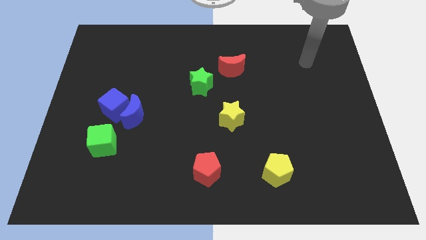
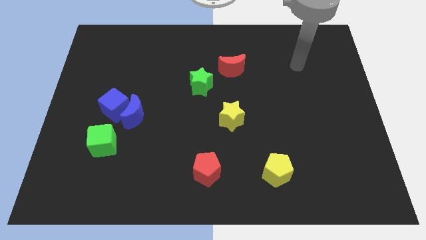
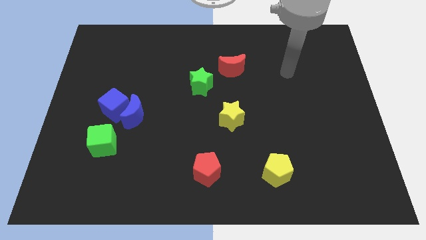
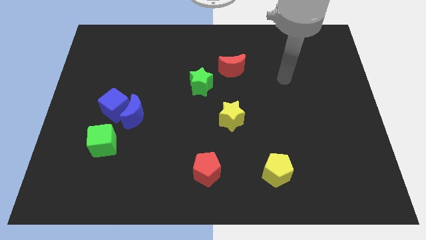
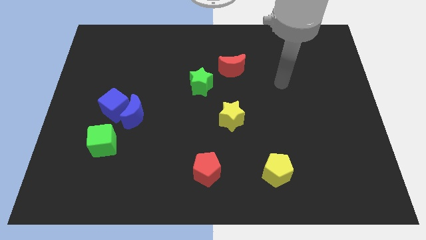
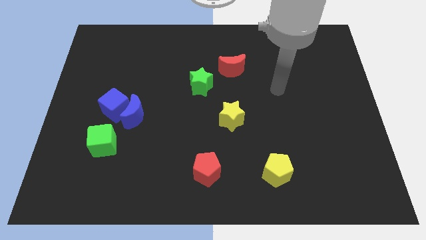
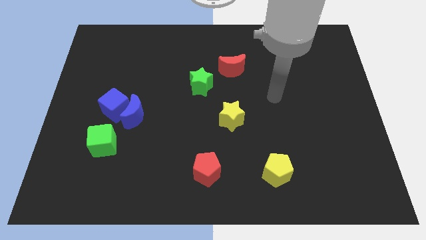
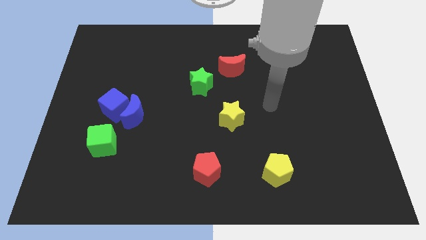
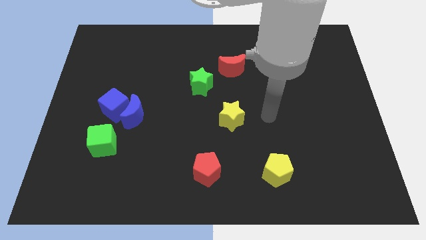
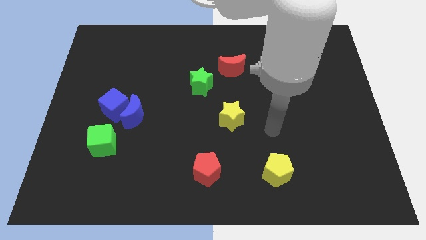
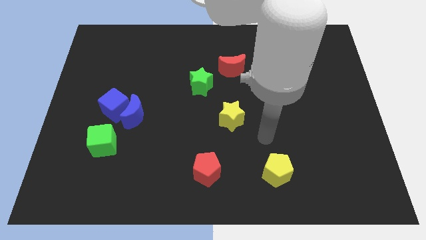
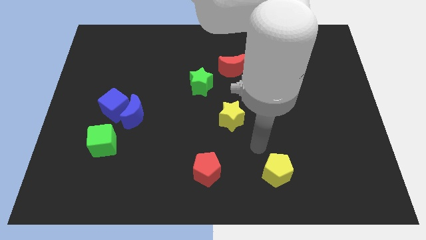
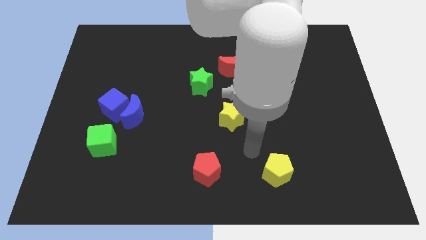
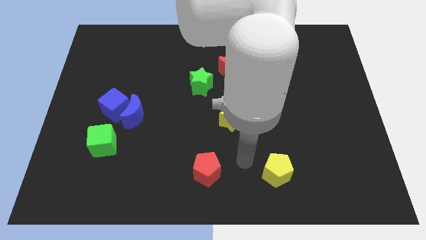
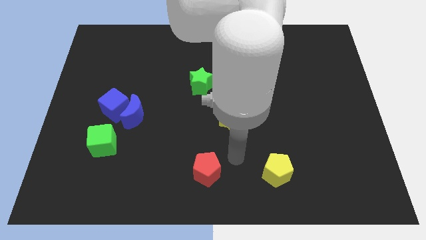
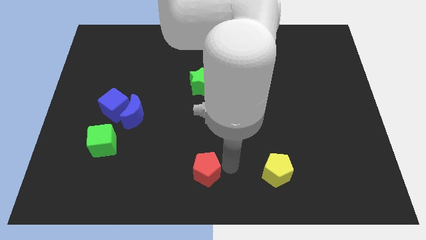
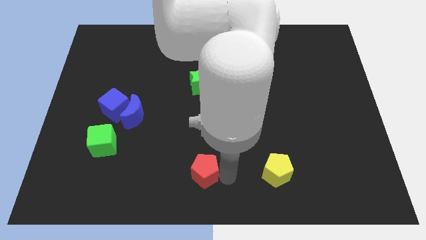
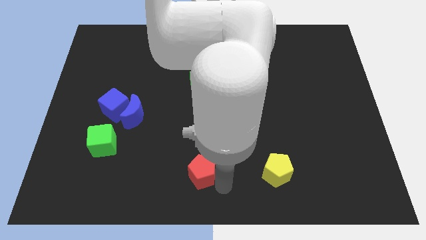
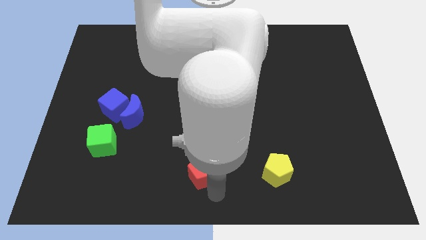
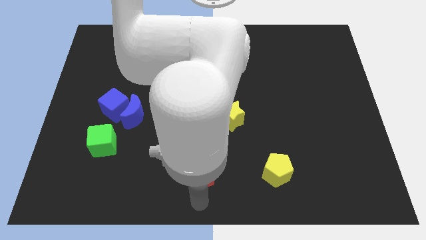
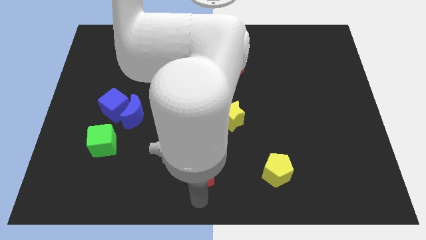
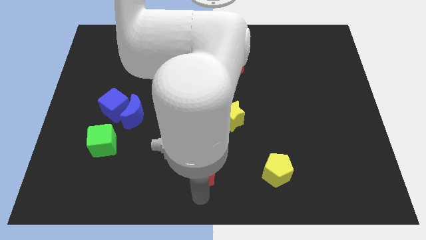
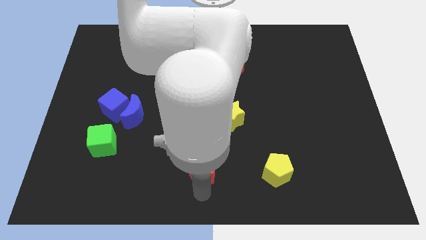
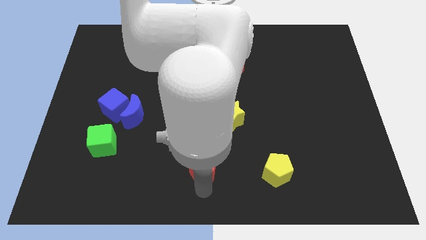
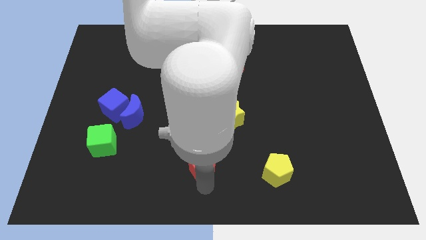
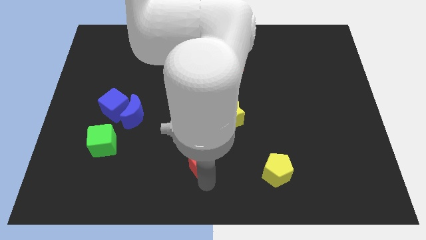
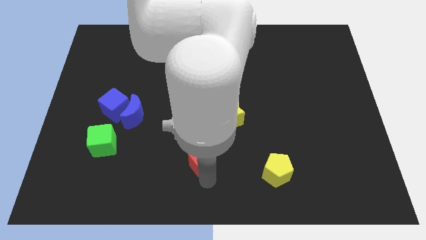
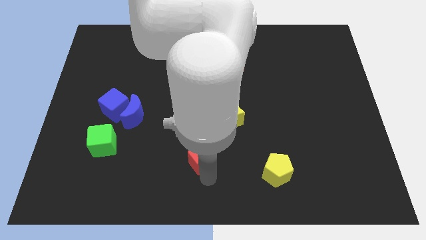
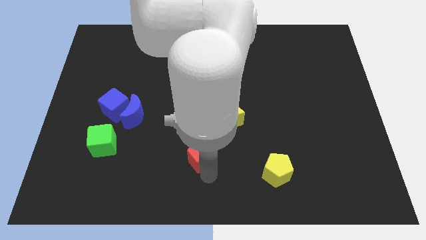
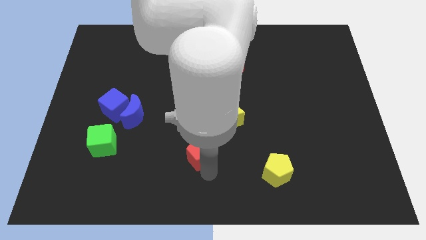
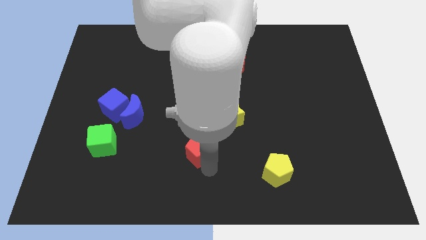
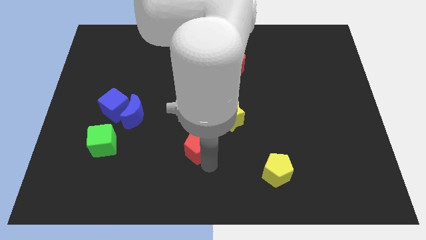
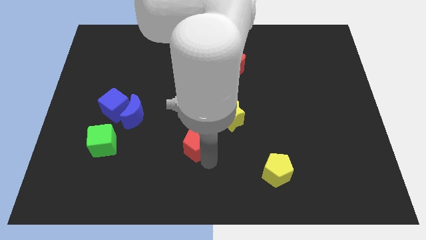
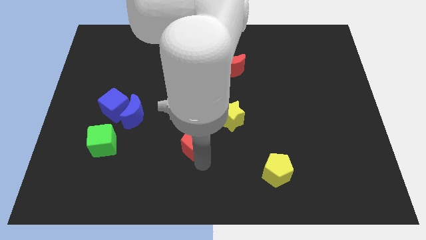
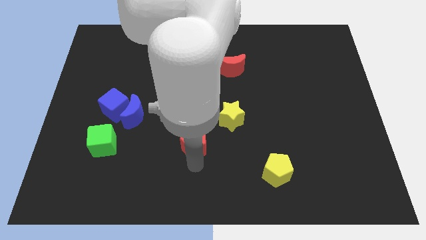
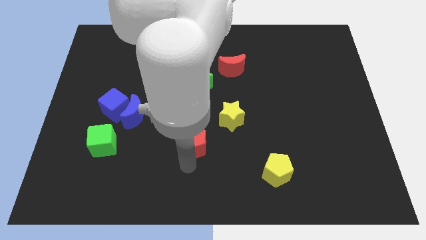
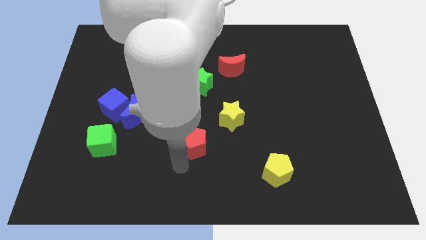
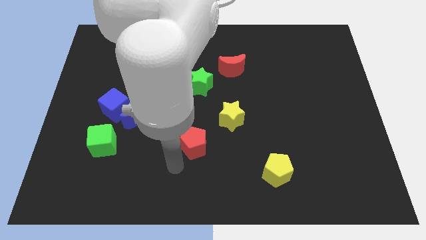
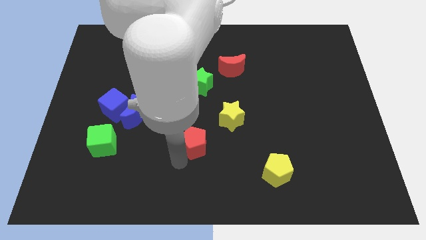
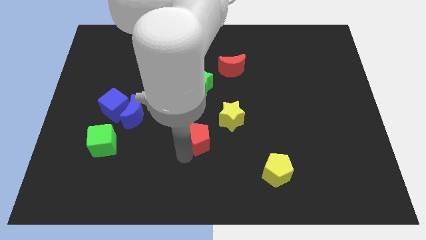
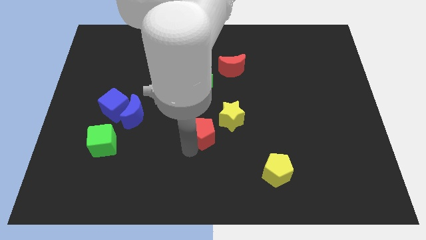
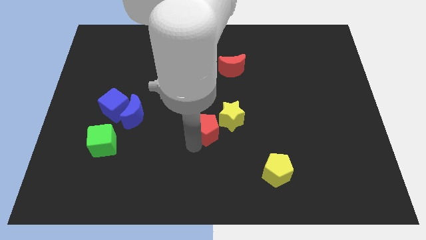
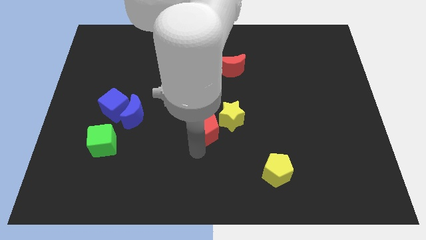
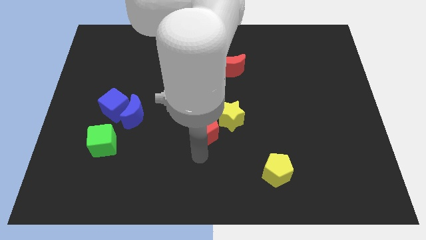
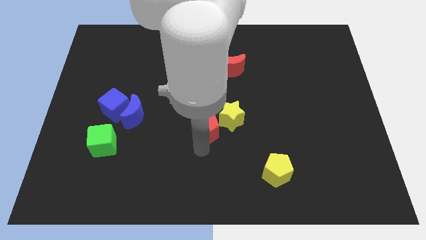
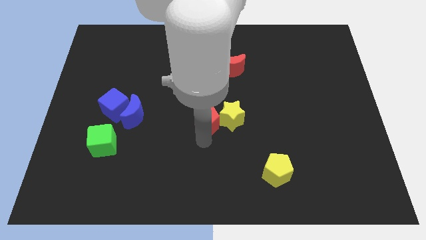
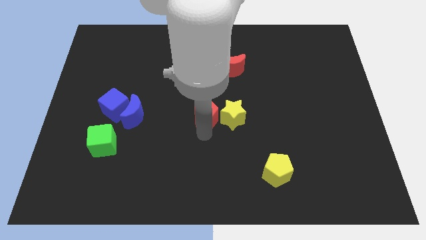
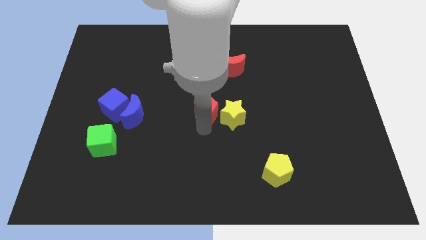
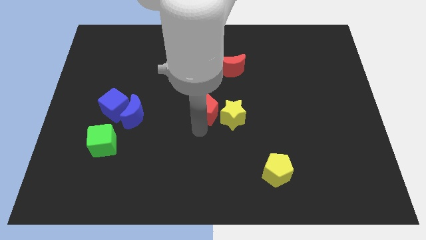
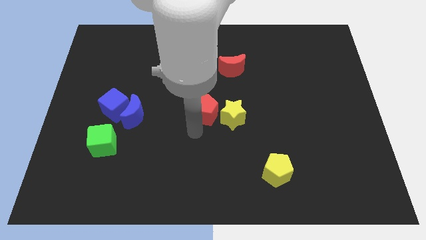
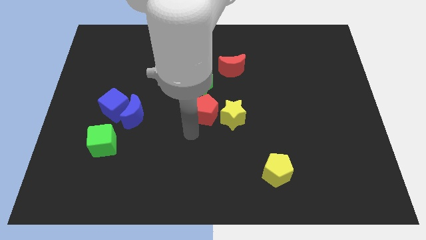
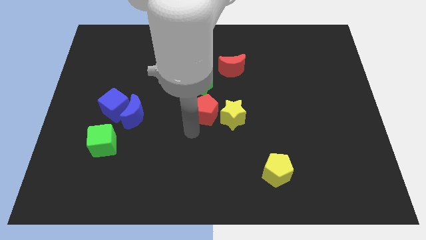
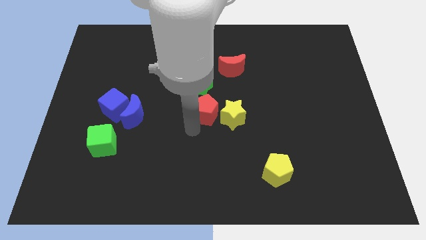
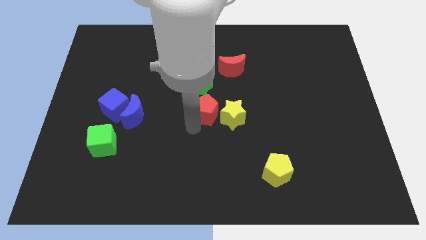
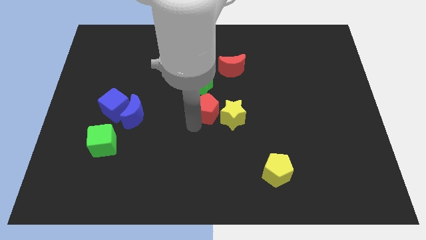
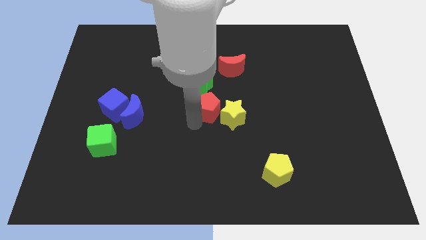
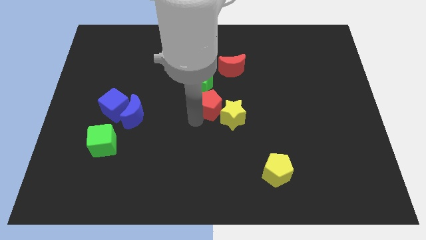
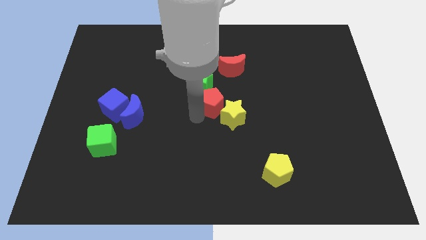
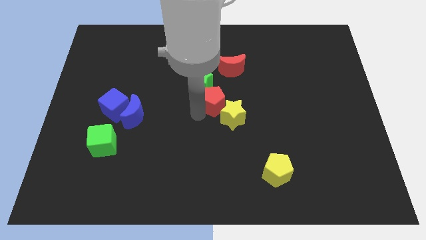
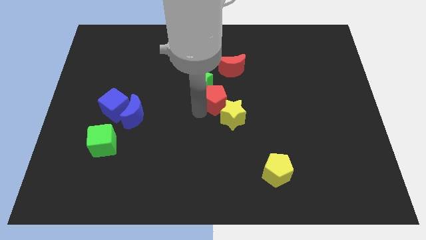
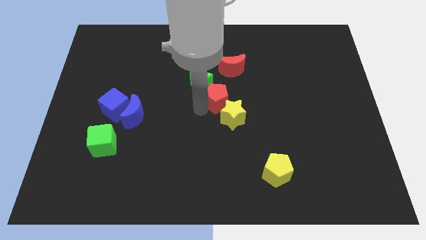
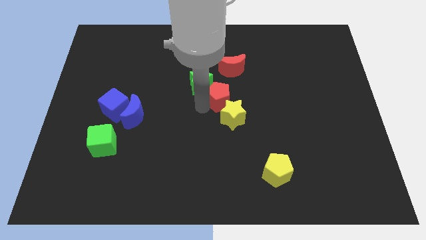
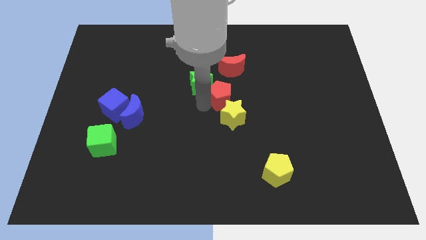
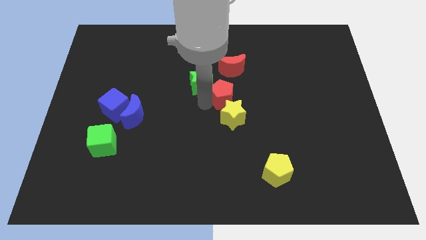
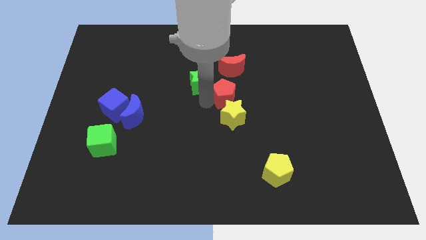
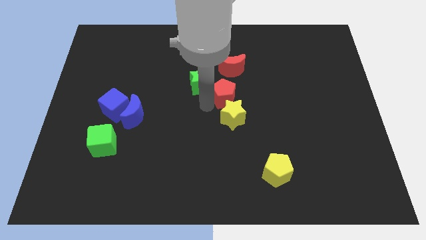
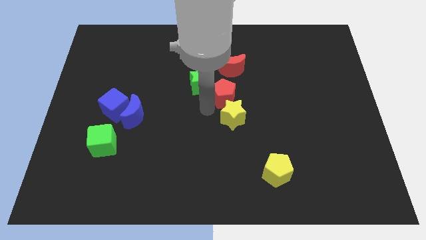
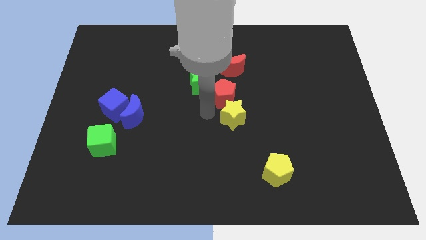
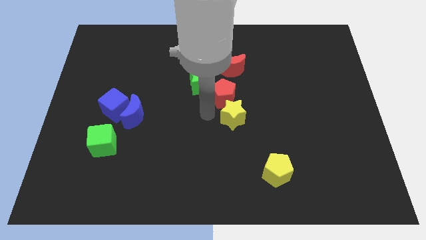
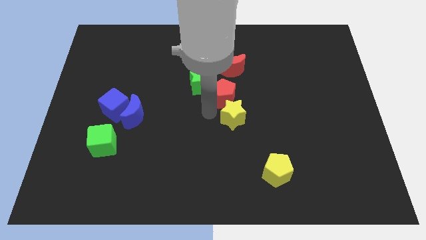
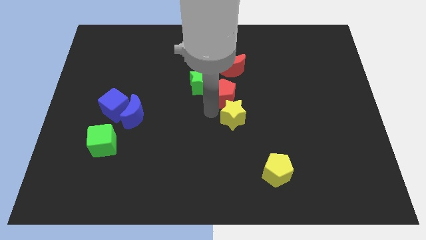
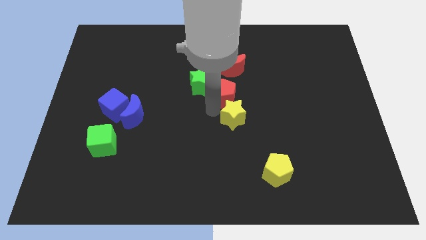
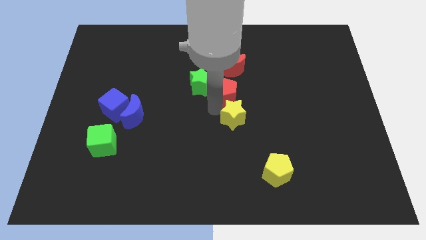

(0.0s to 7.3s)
push the red pentagon upwards

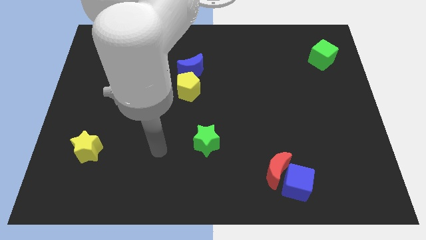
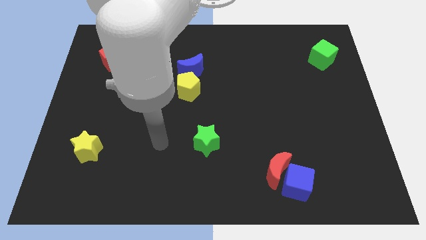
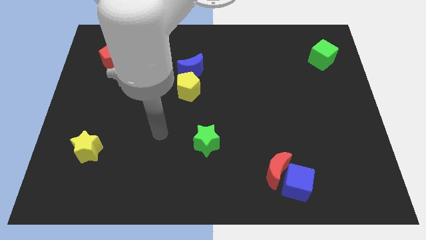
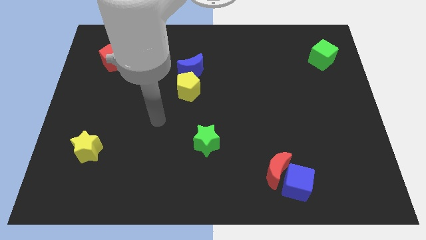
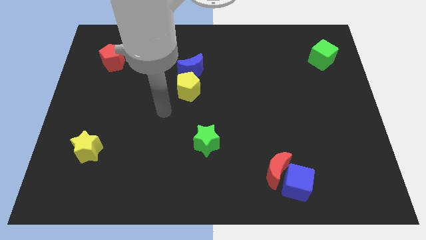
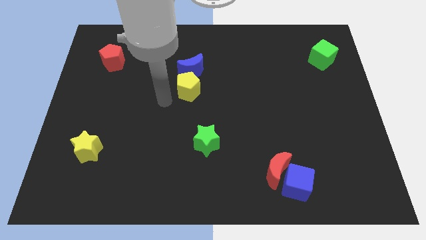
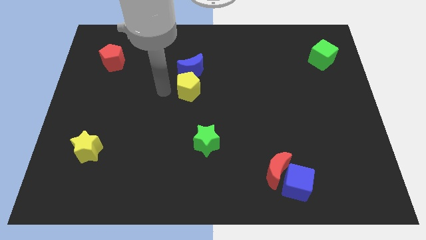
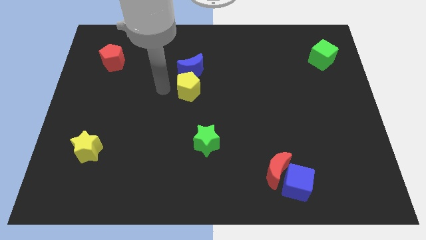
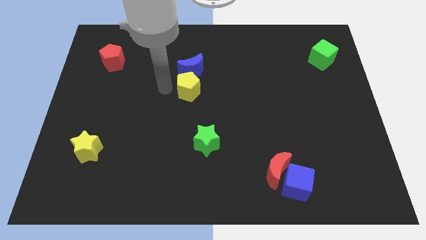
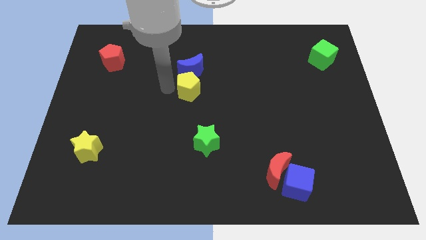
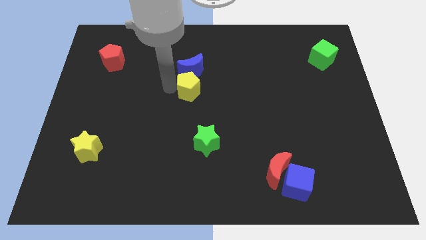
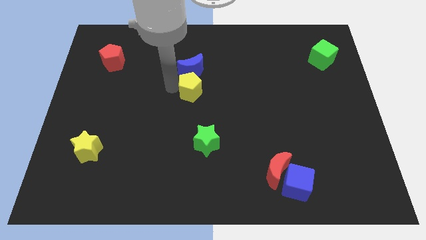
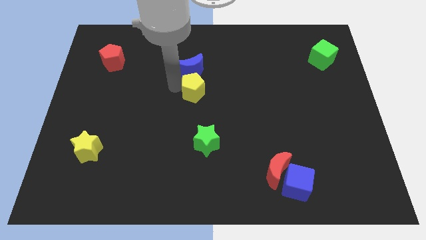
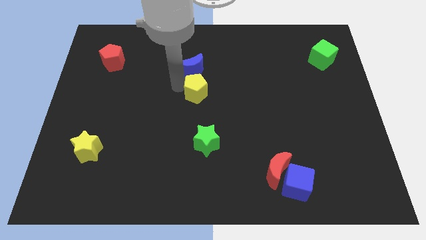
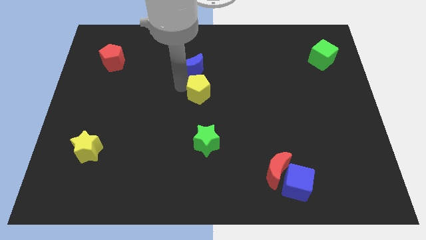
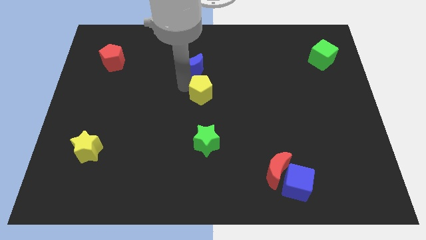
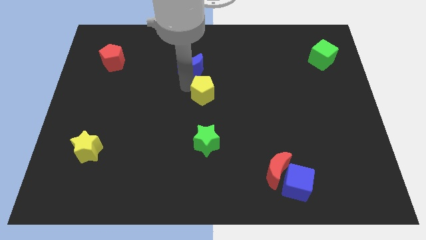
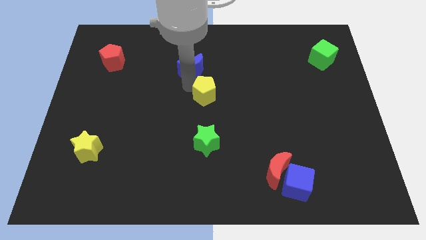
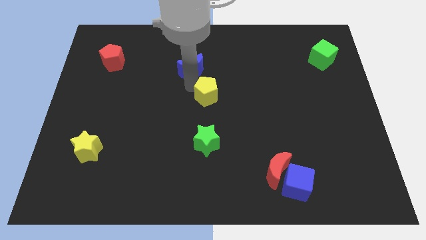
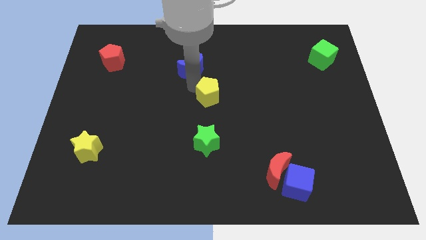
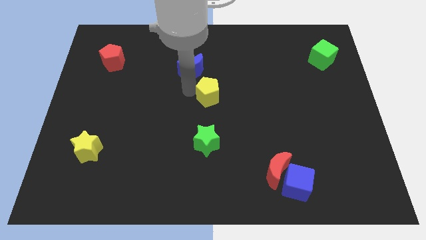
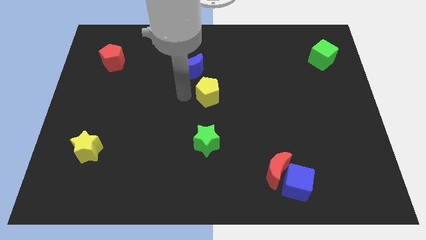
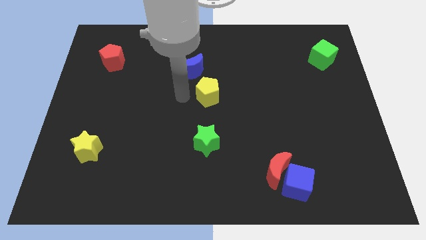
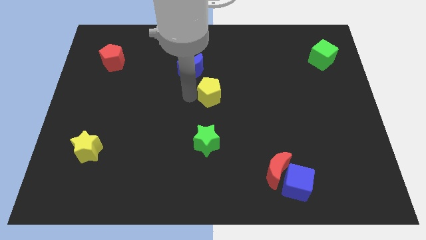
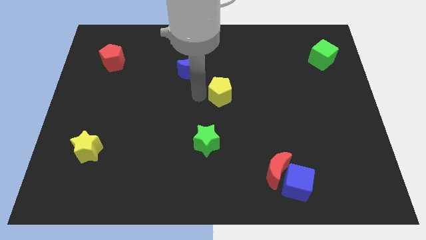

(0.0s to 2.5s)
slightly slide the yellow pentagon to the right
